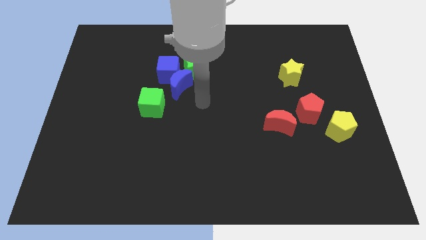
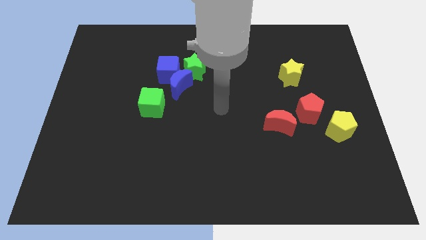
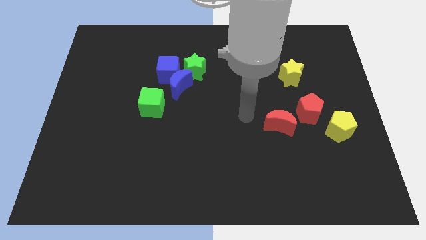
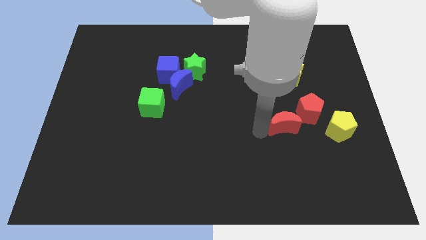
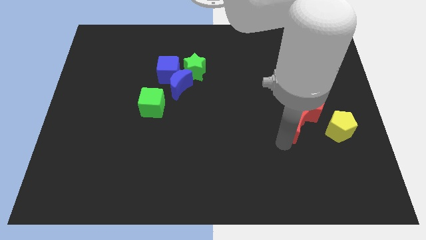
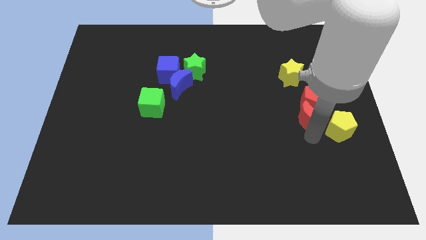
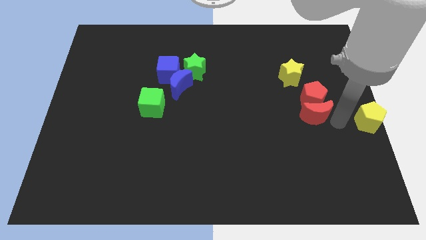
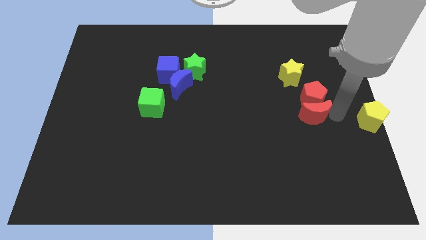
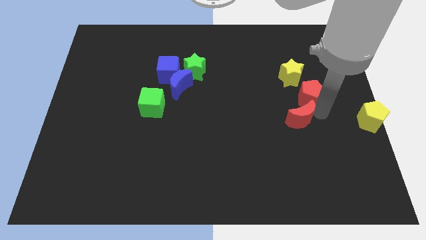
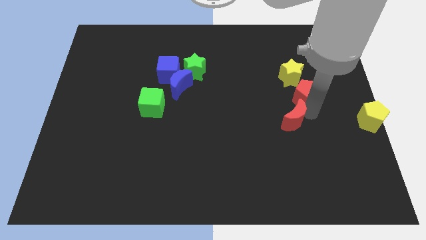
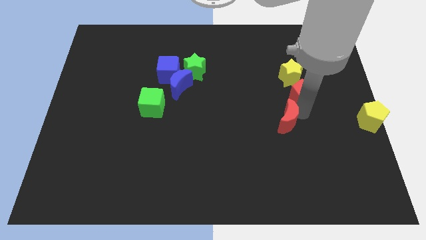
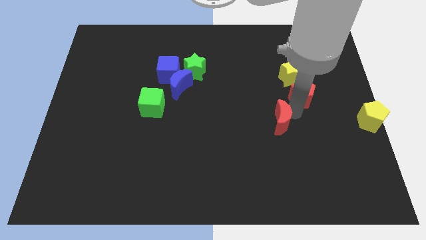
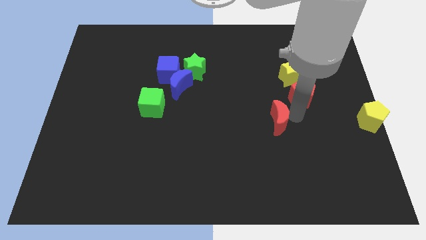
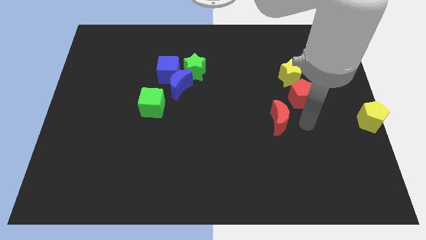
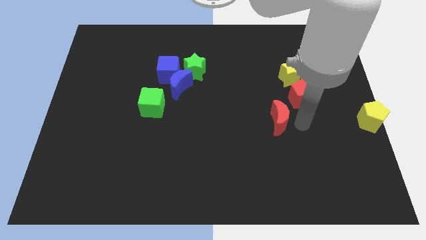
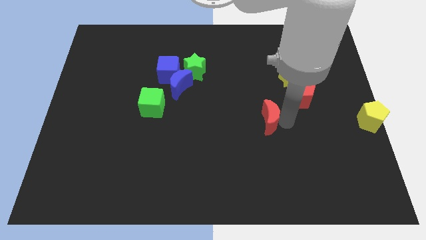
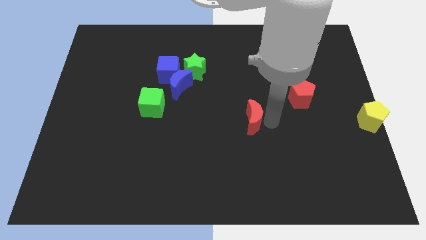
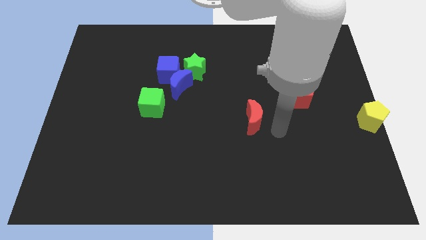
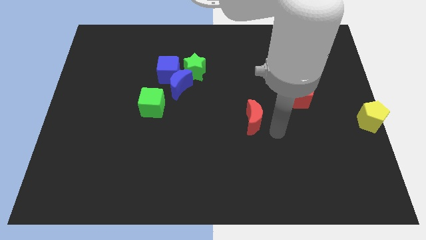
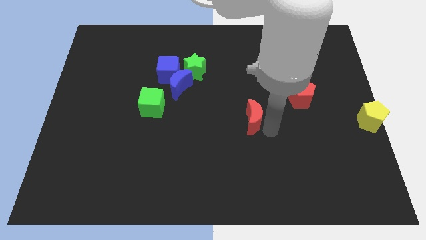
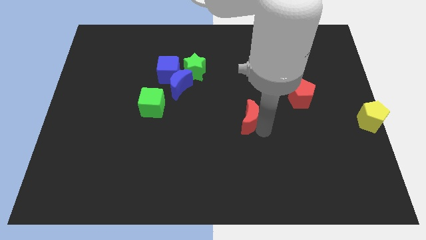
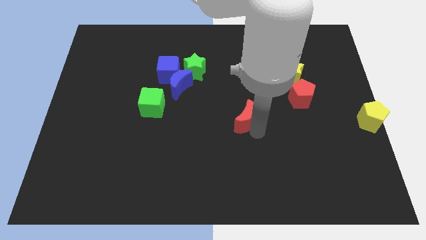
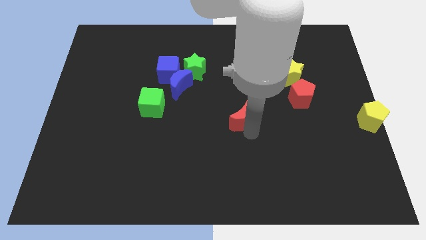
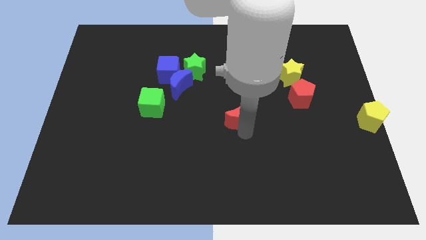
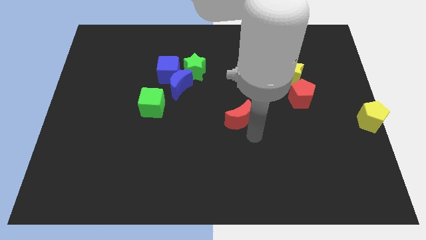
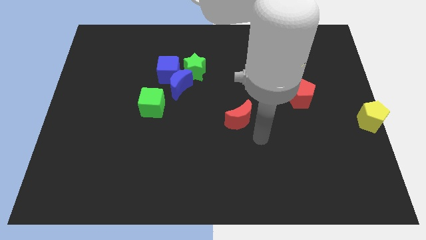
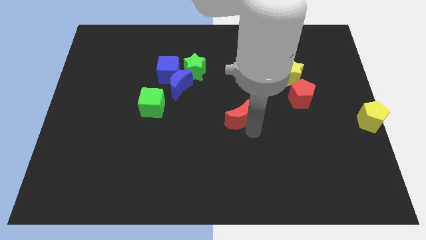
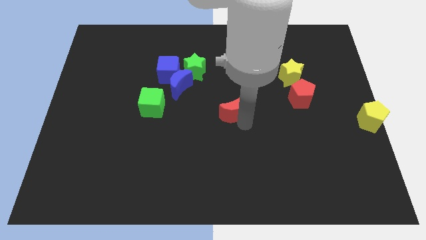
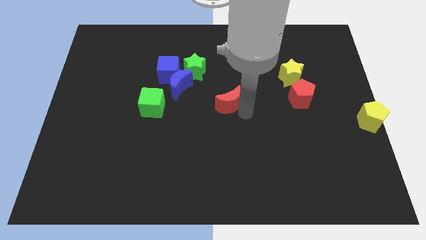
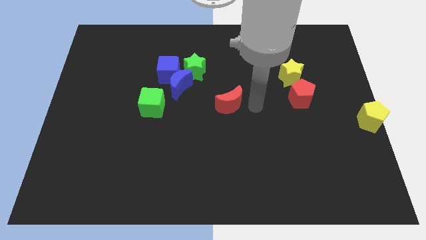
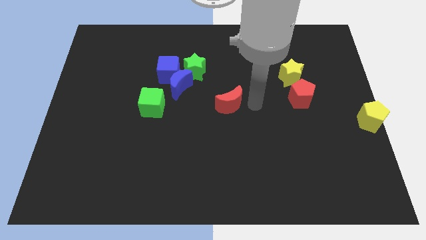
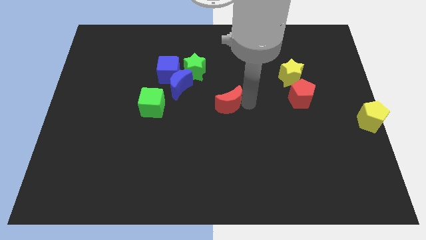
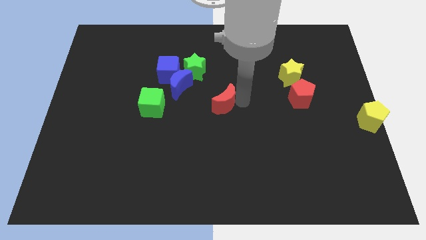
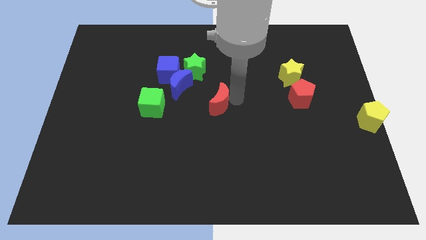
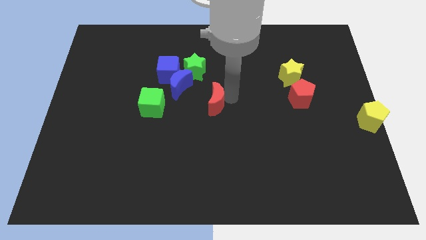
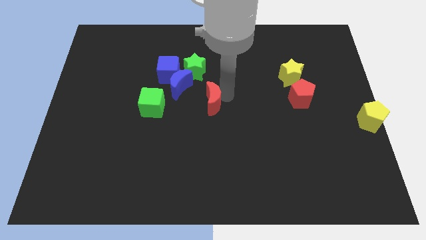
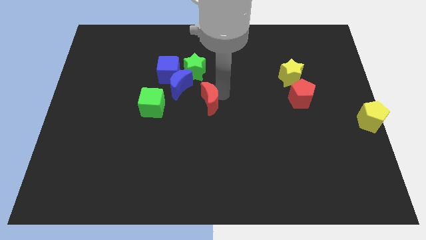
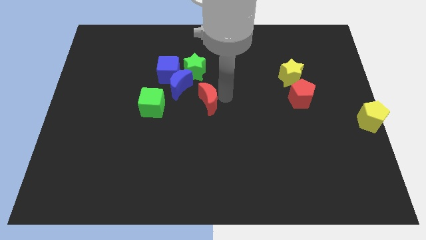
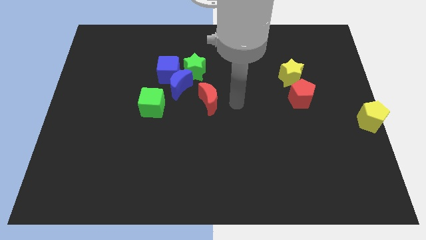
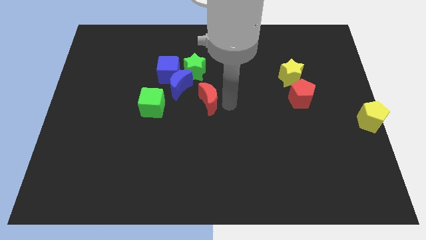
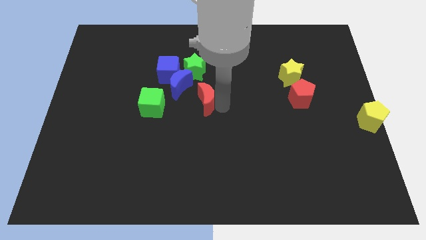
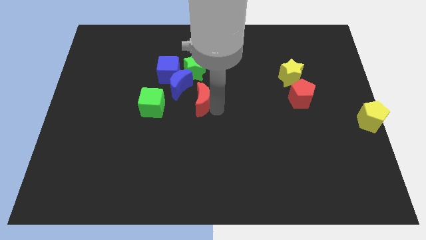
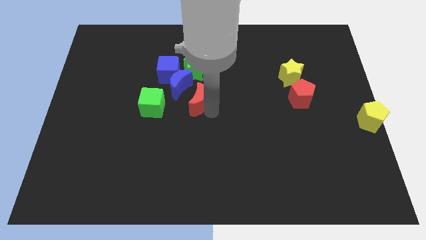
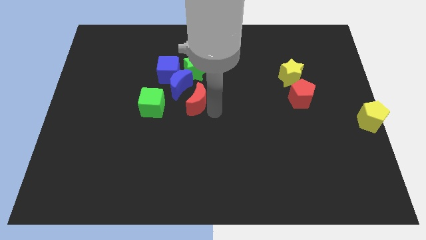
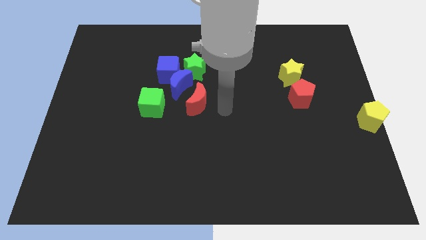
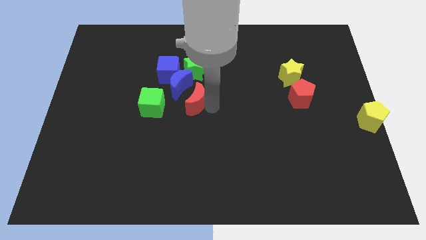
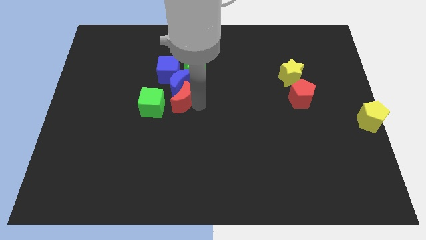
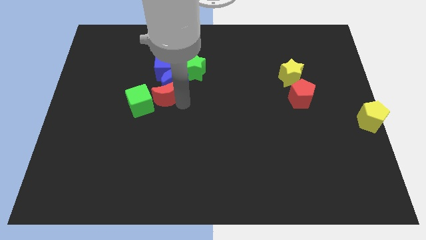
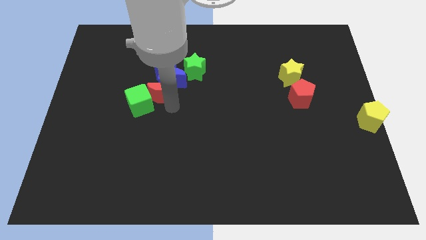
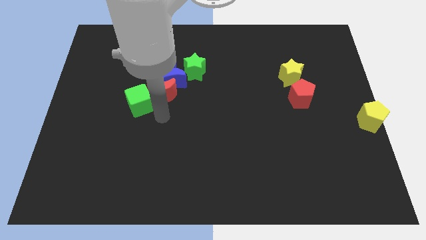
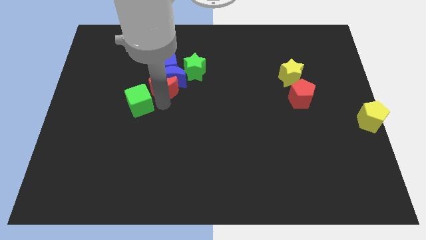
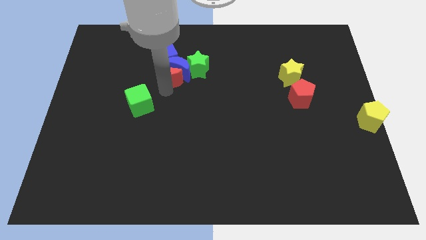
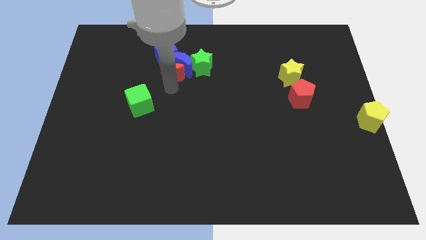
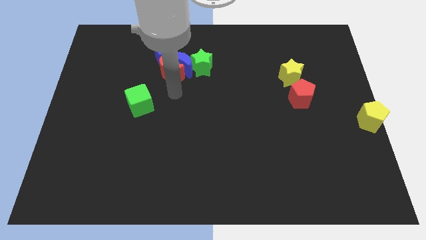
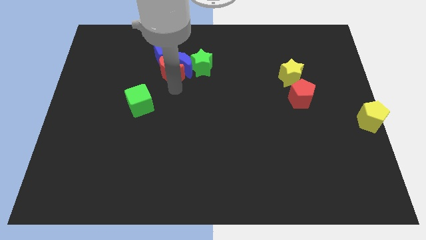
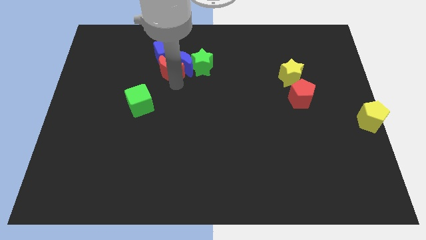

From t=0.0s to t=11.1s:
put the red moon next to the blue cube

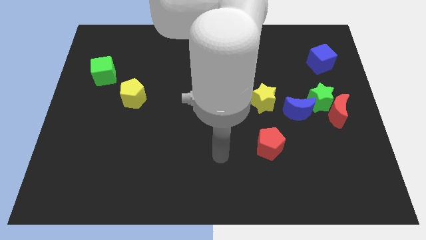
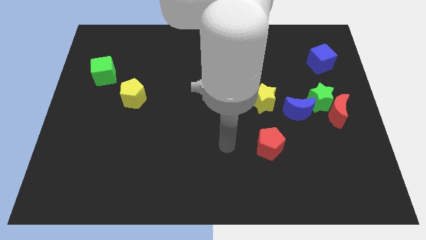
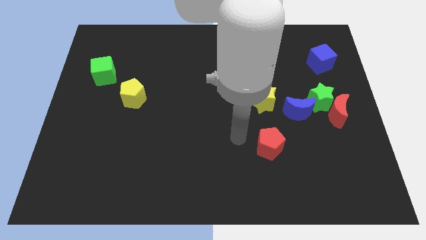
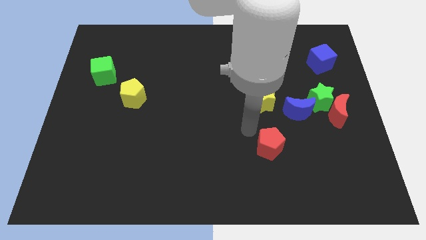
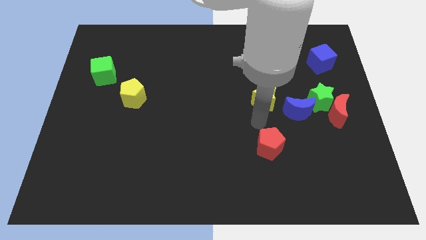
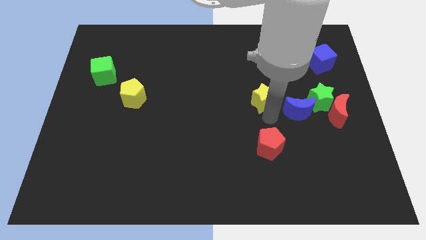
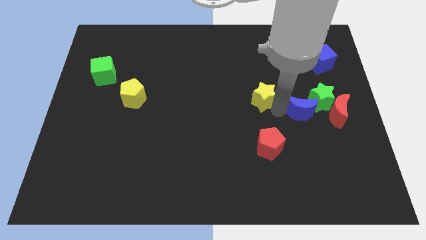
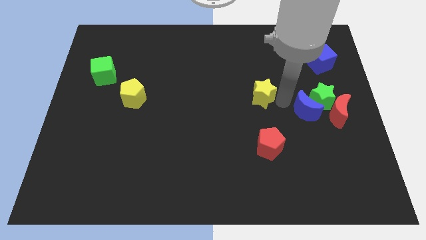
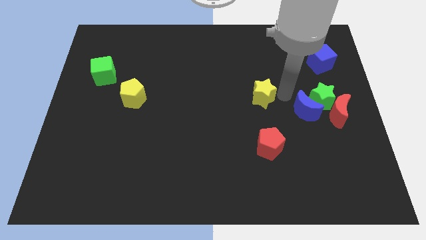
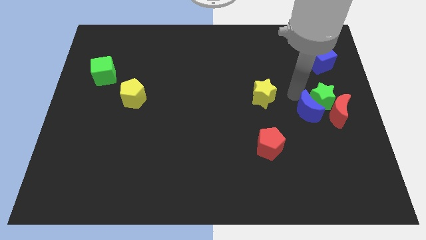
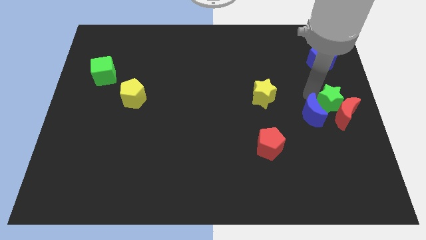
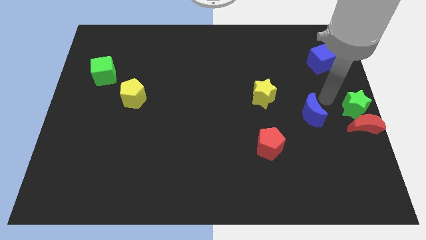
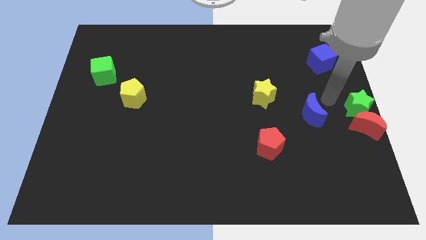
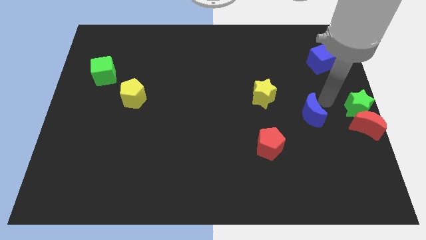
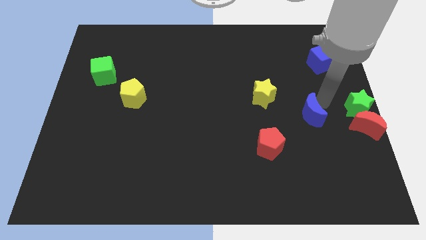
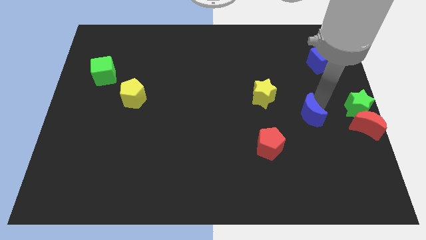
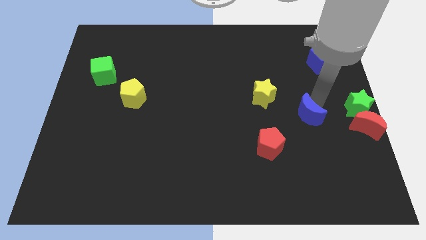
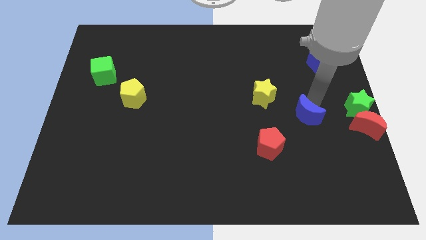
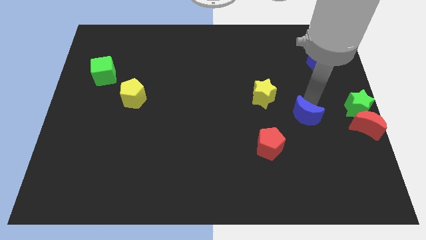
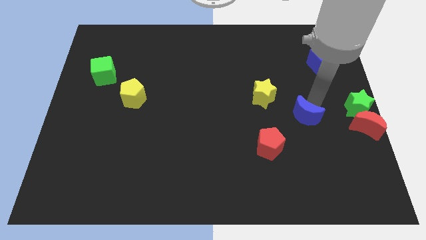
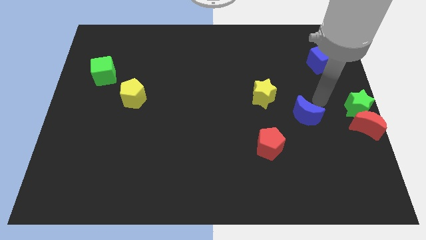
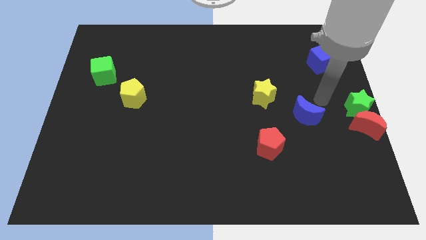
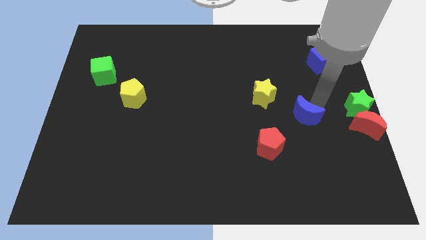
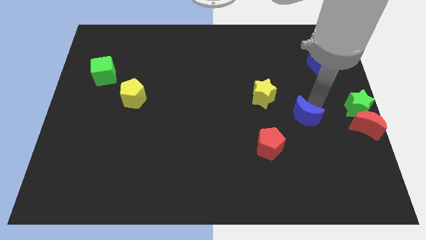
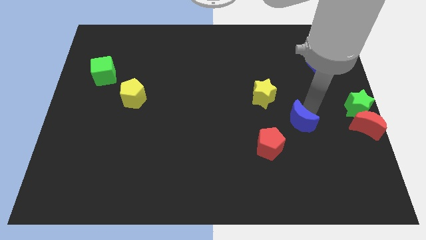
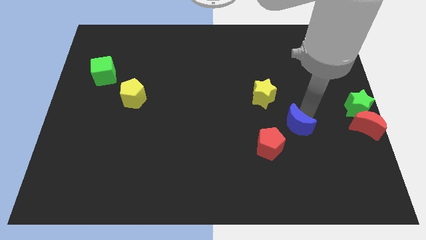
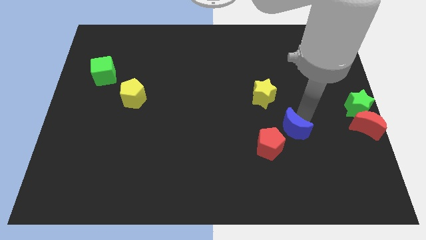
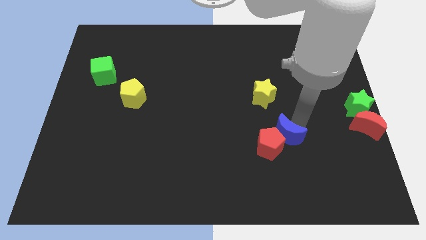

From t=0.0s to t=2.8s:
slide the blue moon next to the red pentagon
